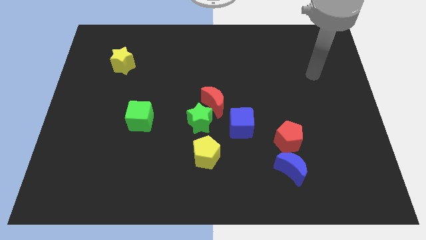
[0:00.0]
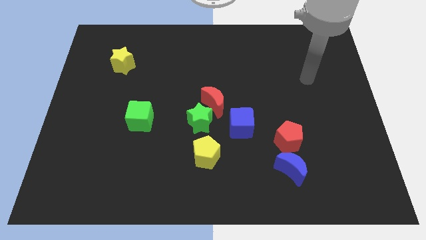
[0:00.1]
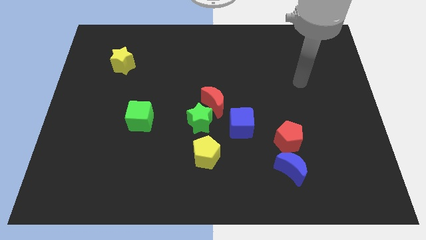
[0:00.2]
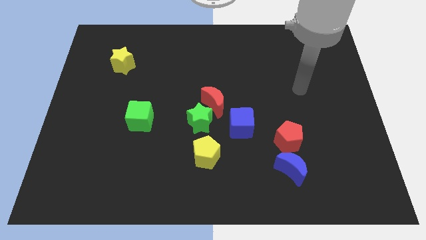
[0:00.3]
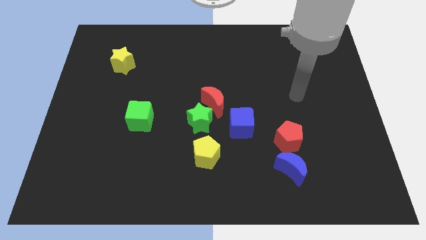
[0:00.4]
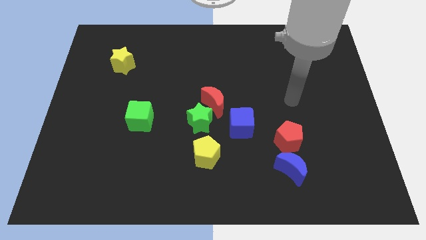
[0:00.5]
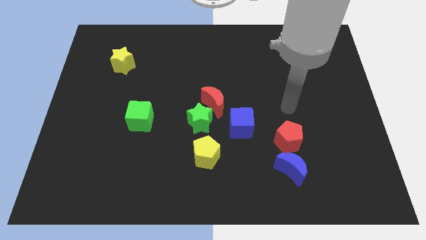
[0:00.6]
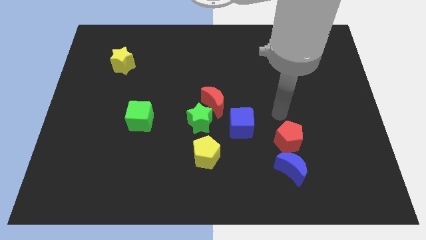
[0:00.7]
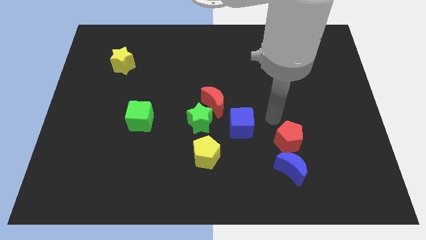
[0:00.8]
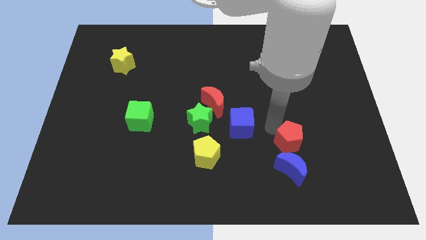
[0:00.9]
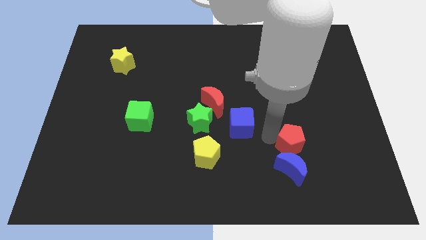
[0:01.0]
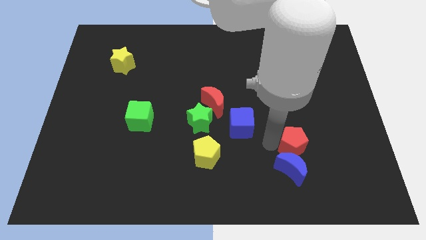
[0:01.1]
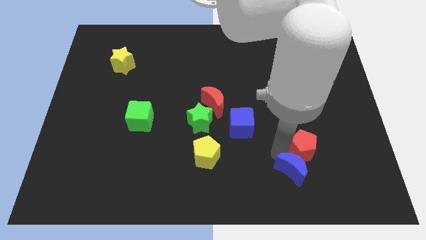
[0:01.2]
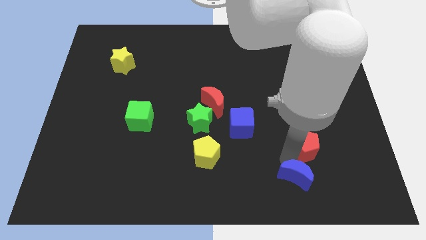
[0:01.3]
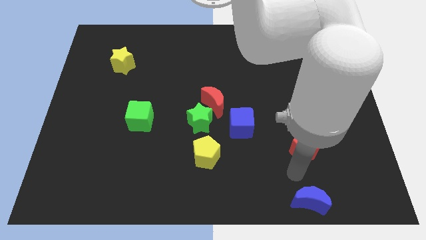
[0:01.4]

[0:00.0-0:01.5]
pull the red pentagon apart from the blue moon

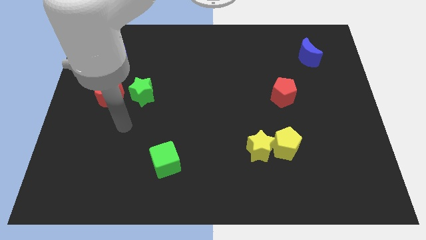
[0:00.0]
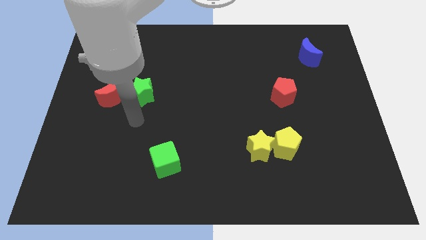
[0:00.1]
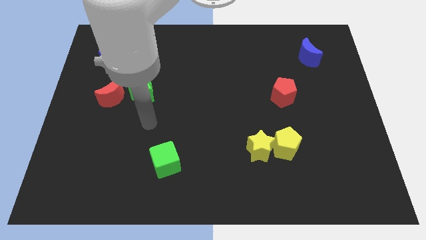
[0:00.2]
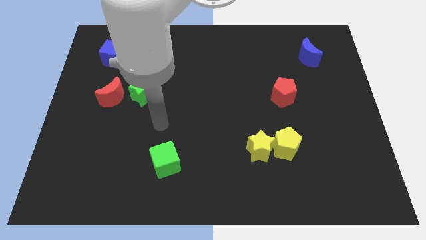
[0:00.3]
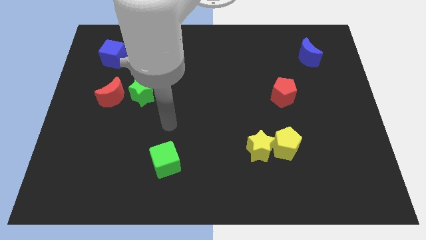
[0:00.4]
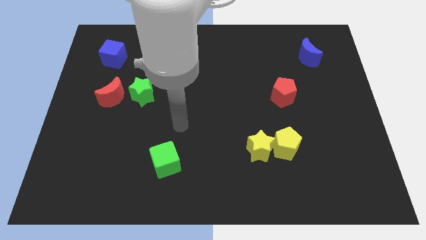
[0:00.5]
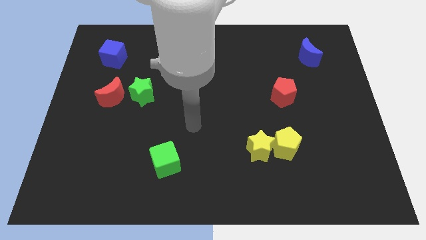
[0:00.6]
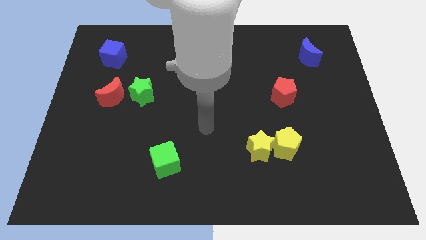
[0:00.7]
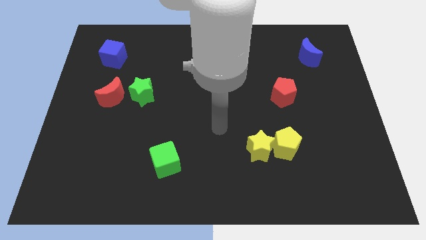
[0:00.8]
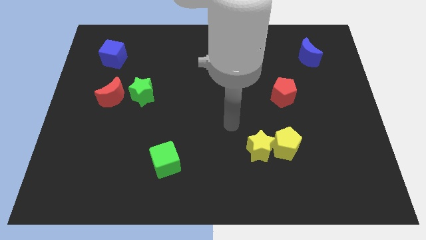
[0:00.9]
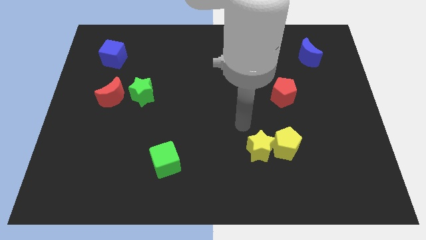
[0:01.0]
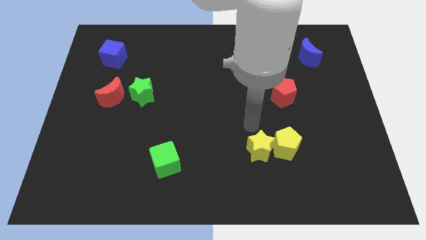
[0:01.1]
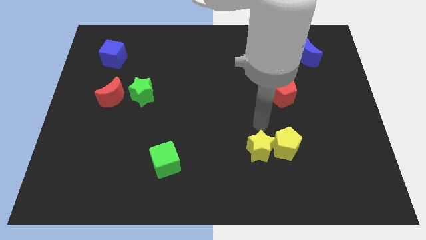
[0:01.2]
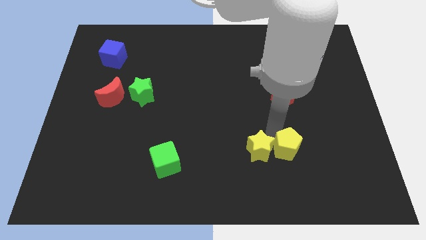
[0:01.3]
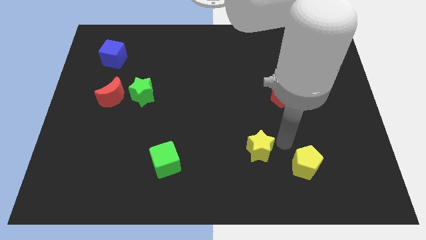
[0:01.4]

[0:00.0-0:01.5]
separate the yellow star from the yellow pentagon

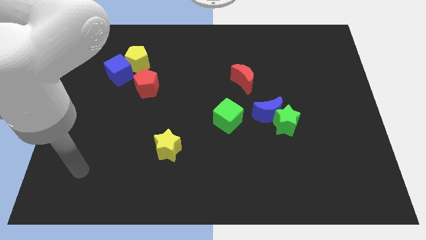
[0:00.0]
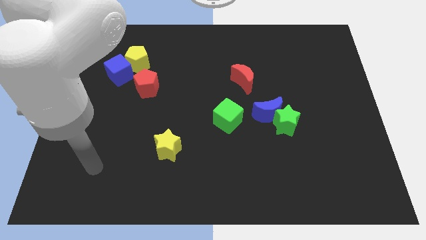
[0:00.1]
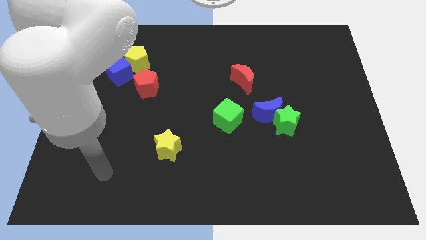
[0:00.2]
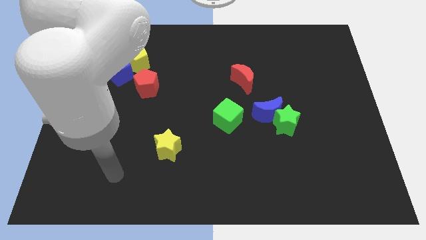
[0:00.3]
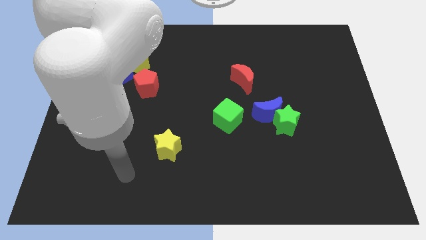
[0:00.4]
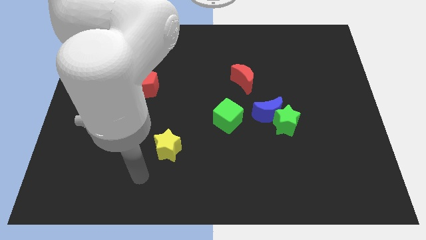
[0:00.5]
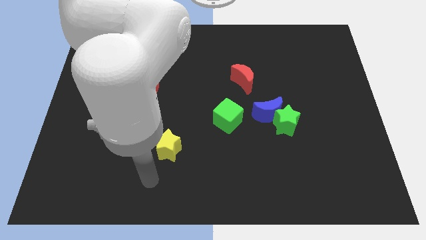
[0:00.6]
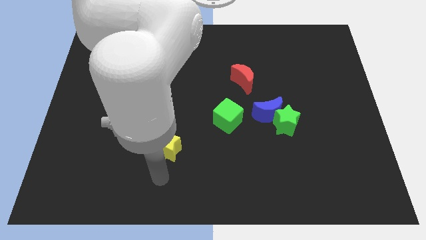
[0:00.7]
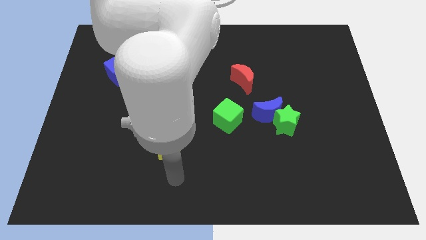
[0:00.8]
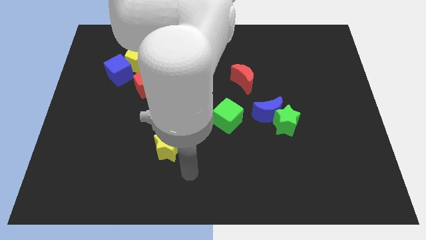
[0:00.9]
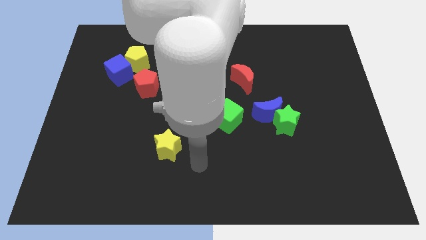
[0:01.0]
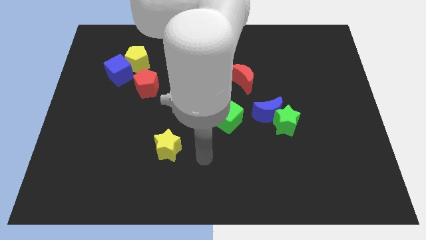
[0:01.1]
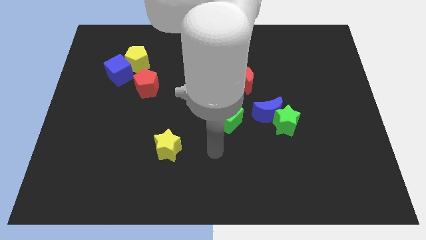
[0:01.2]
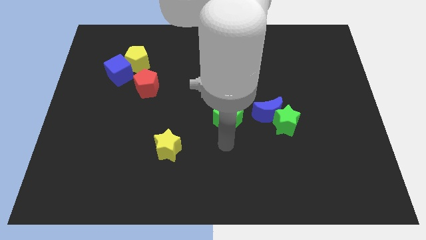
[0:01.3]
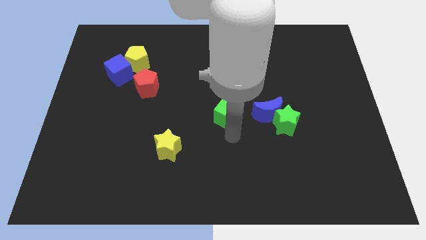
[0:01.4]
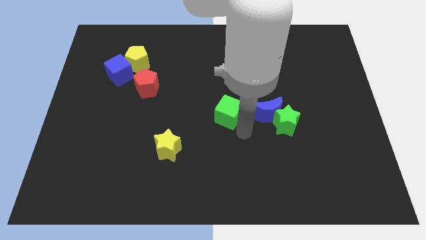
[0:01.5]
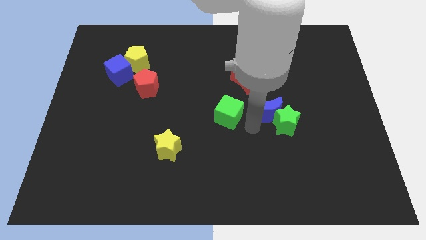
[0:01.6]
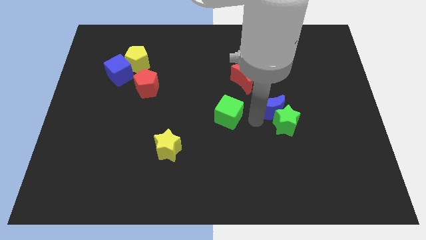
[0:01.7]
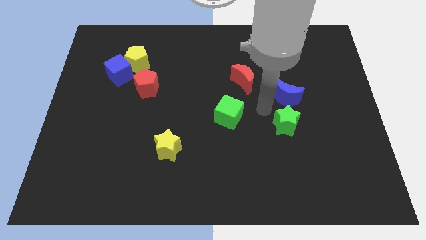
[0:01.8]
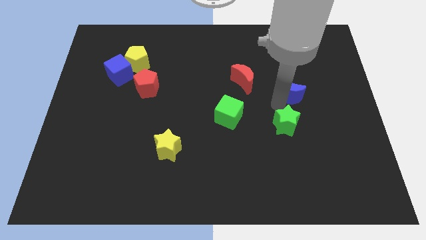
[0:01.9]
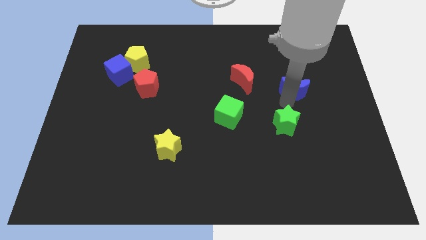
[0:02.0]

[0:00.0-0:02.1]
separate the green star from the blue moon

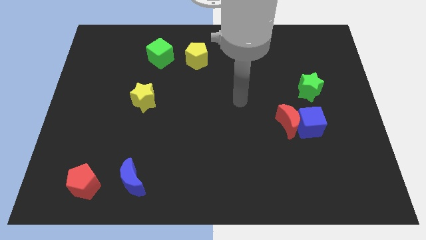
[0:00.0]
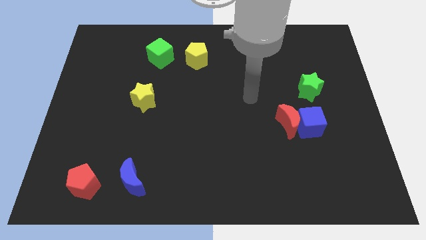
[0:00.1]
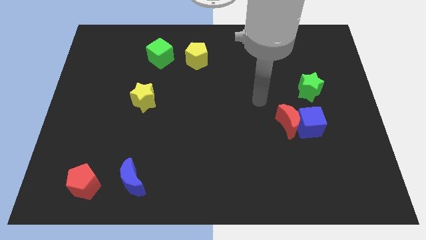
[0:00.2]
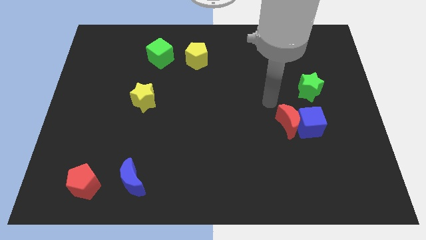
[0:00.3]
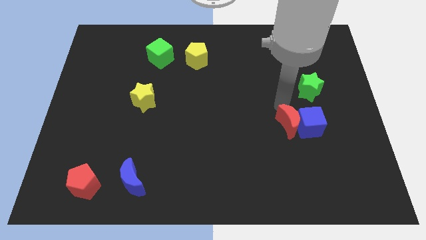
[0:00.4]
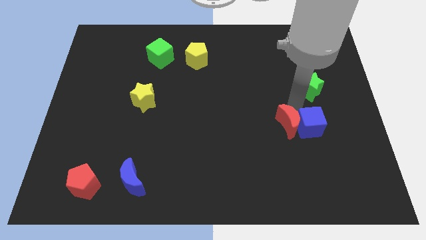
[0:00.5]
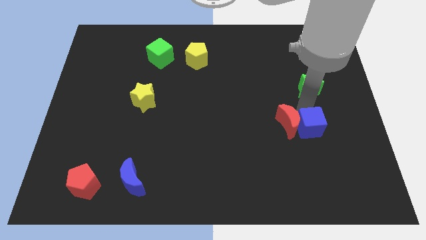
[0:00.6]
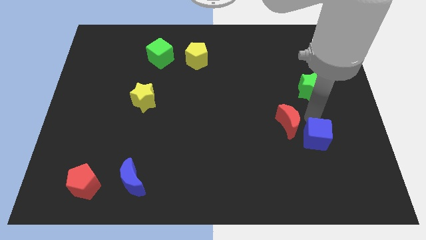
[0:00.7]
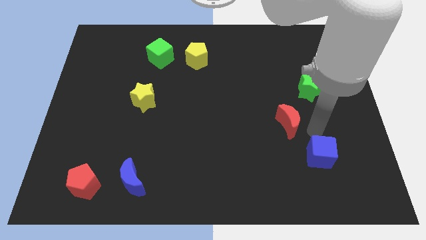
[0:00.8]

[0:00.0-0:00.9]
move the red moon away from the blue cube

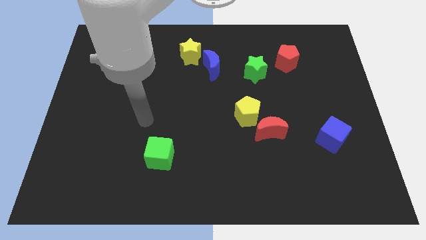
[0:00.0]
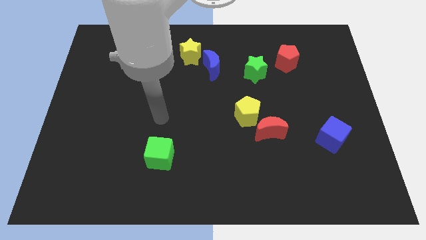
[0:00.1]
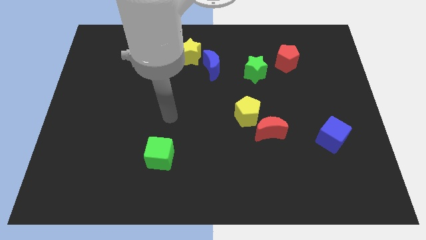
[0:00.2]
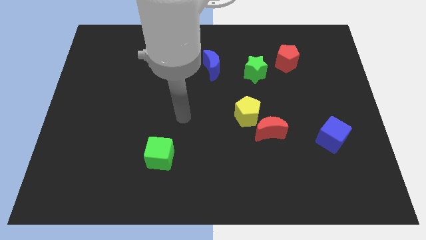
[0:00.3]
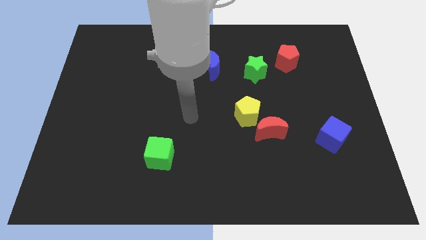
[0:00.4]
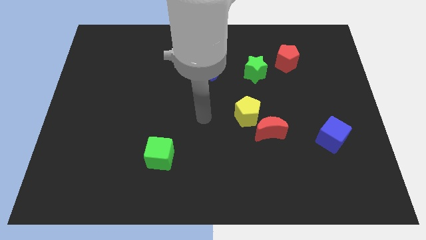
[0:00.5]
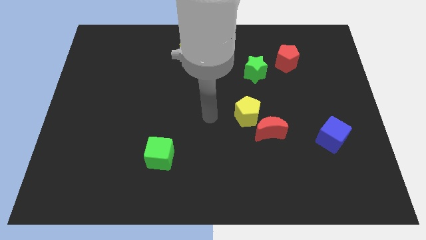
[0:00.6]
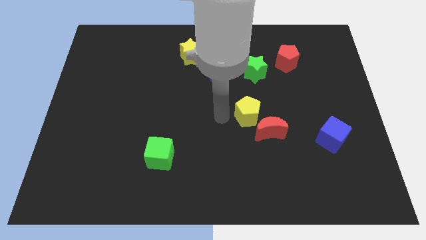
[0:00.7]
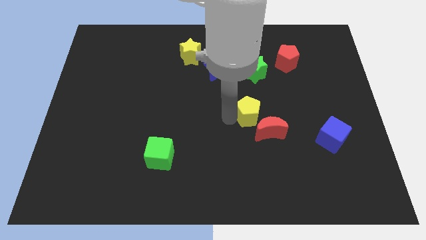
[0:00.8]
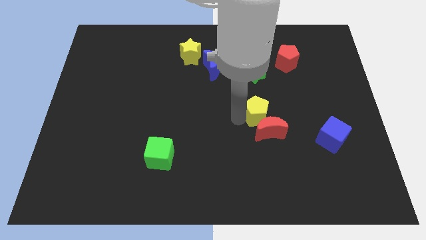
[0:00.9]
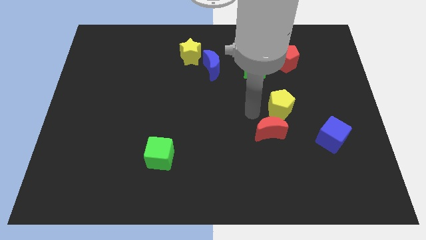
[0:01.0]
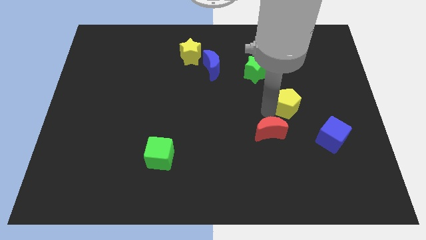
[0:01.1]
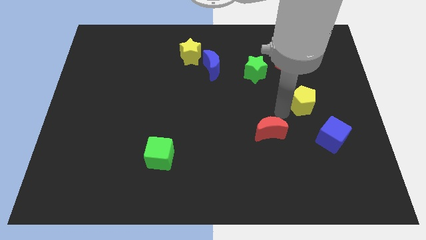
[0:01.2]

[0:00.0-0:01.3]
separate the red moon from the yellow pentagon

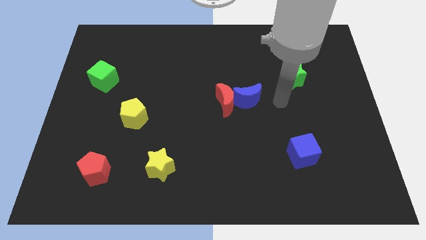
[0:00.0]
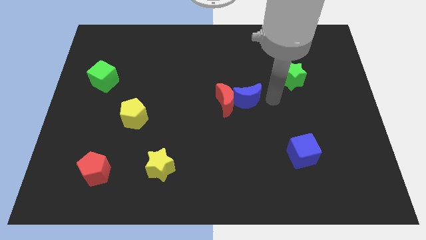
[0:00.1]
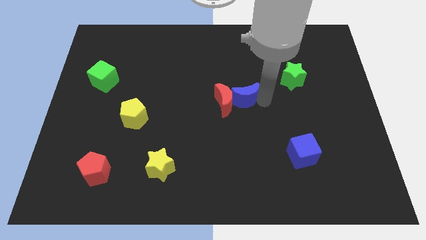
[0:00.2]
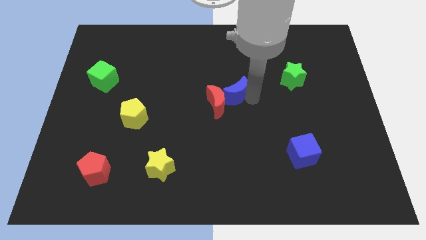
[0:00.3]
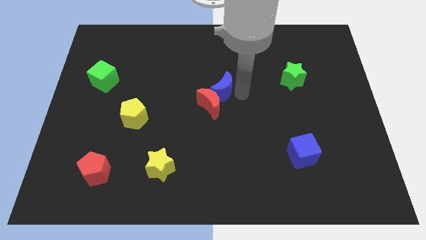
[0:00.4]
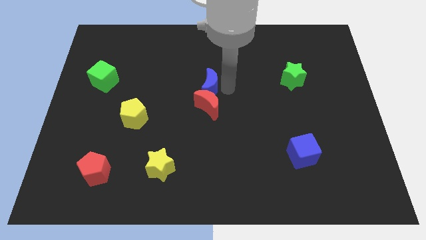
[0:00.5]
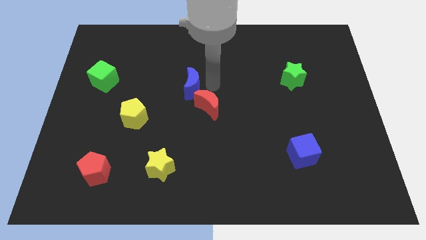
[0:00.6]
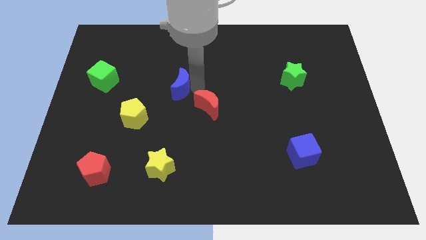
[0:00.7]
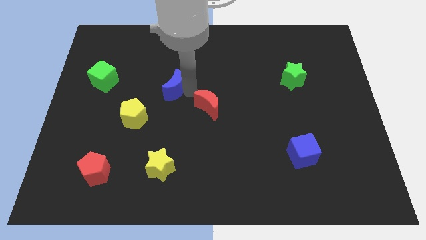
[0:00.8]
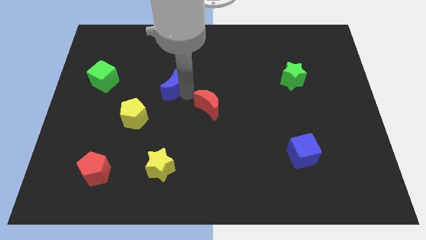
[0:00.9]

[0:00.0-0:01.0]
separate the red moon from the blue moon

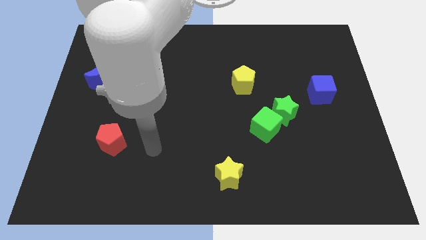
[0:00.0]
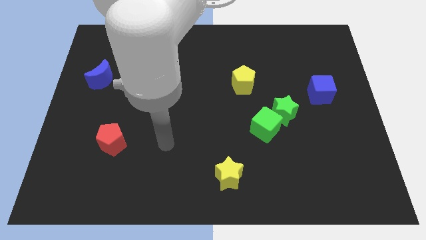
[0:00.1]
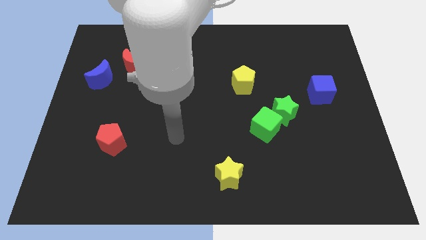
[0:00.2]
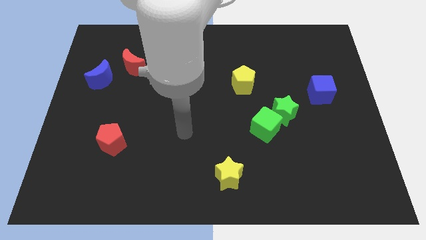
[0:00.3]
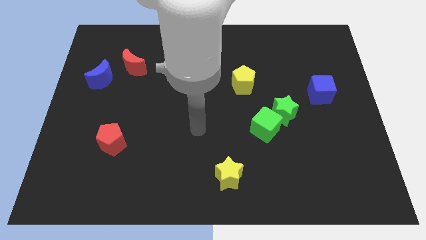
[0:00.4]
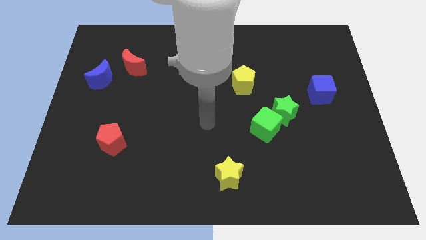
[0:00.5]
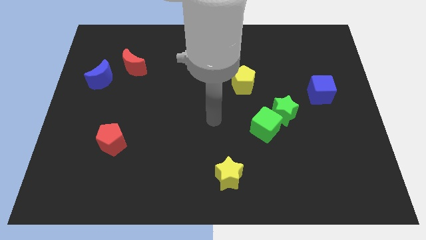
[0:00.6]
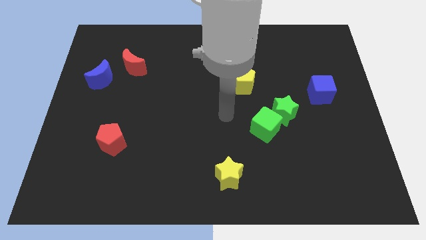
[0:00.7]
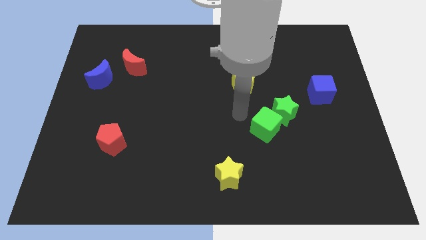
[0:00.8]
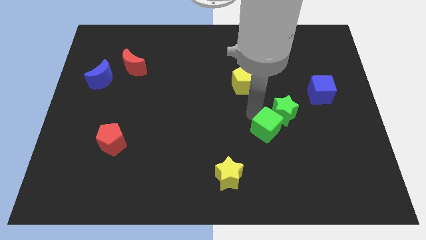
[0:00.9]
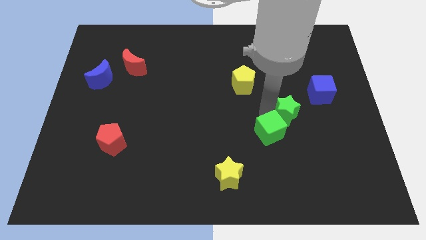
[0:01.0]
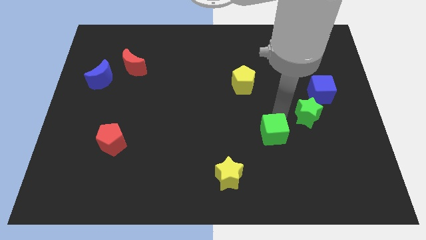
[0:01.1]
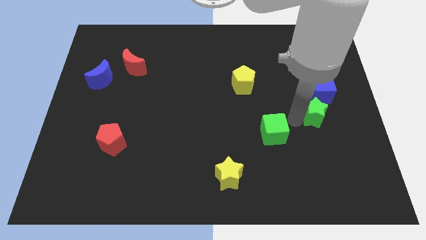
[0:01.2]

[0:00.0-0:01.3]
separate the green cube from the green star
